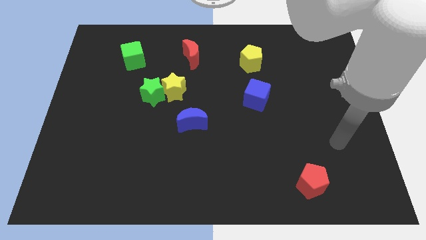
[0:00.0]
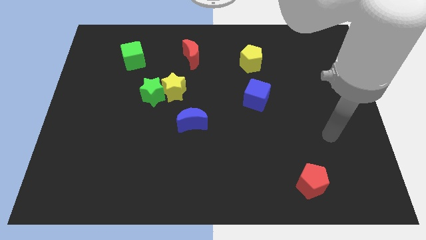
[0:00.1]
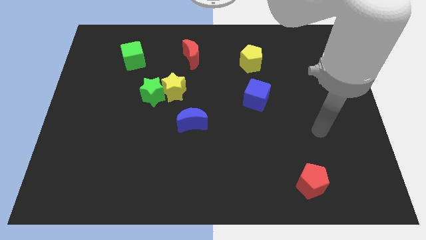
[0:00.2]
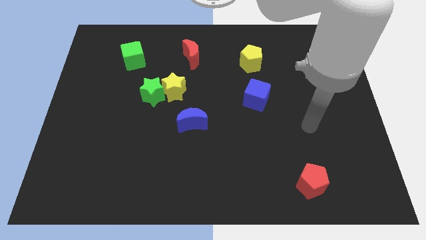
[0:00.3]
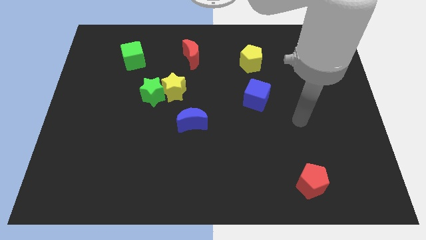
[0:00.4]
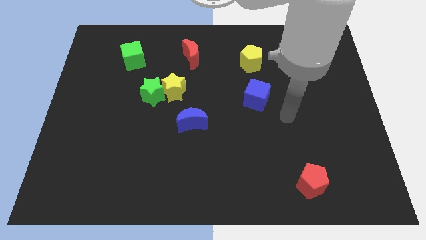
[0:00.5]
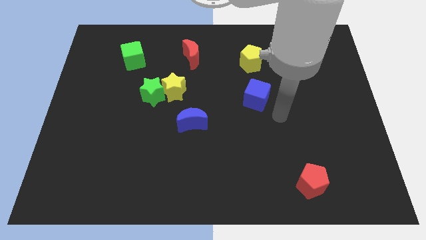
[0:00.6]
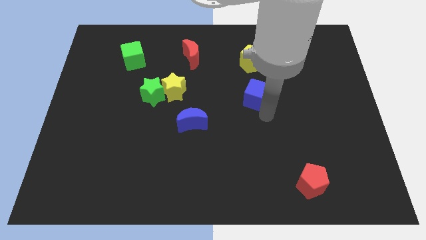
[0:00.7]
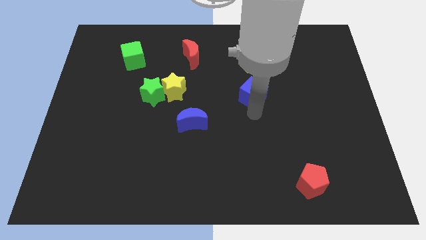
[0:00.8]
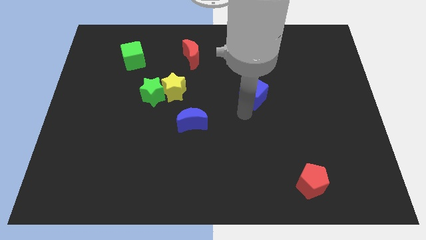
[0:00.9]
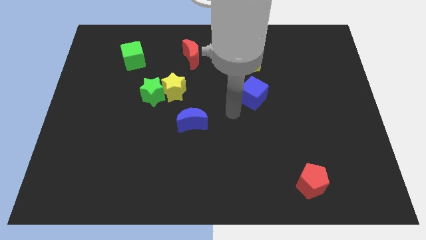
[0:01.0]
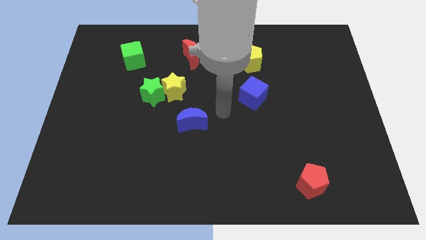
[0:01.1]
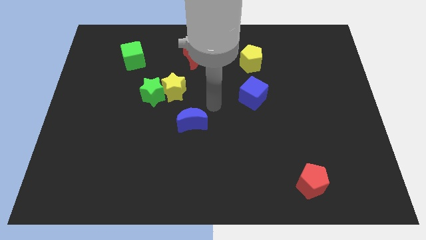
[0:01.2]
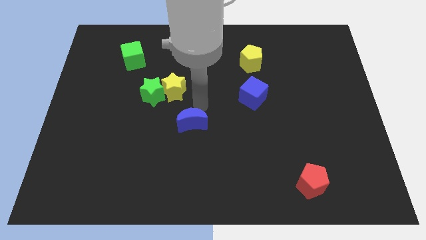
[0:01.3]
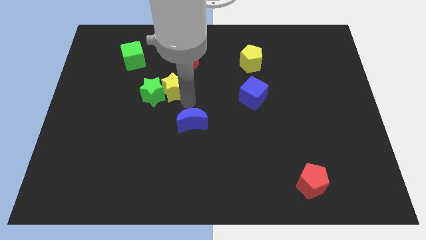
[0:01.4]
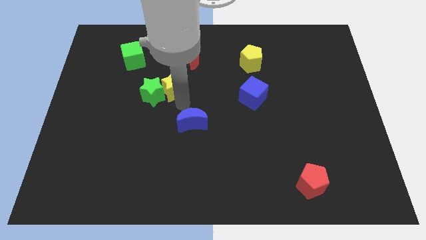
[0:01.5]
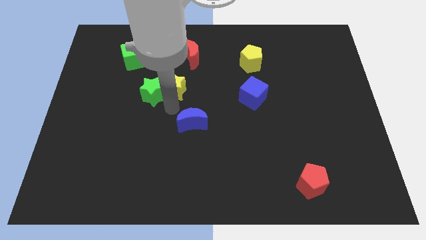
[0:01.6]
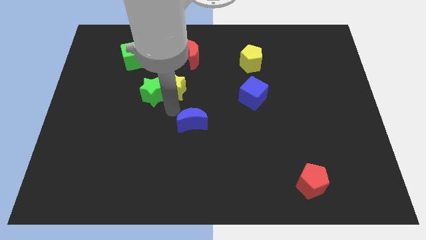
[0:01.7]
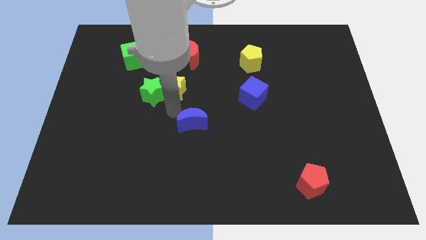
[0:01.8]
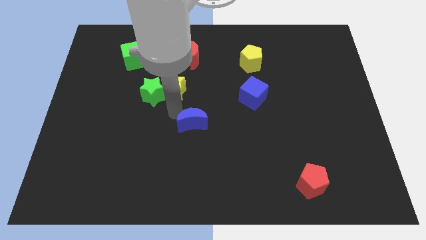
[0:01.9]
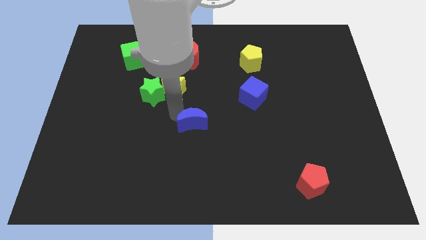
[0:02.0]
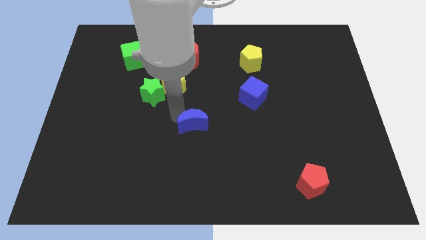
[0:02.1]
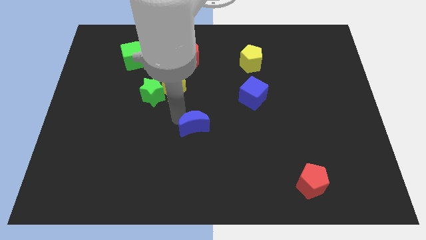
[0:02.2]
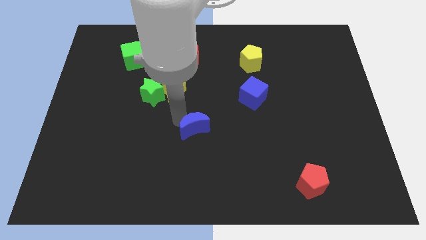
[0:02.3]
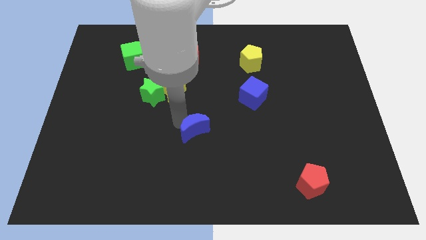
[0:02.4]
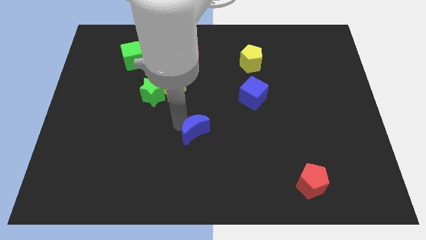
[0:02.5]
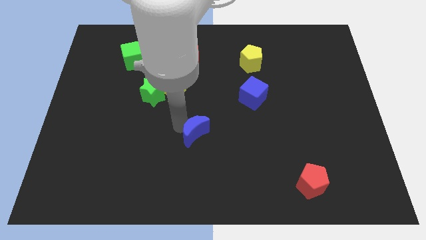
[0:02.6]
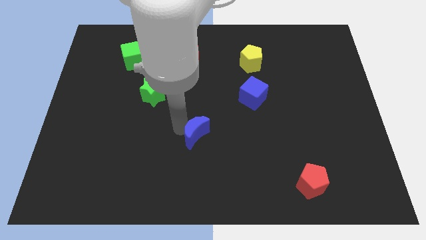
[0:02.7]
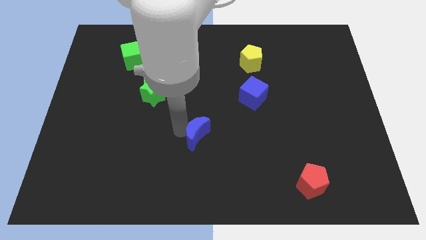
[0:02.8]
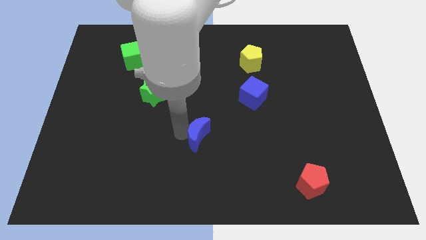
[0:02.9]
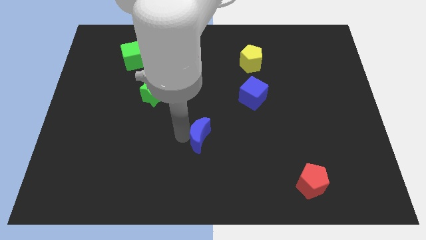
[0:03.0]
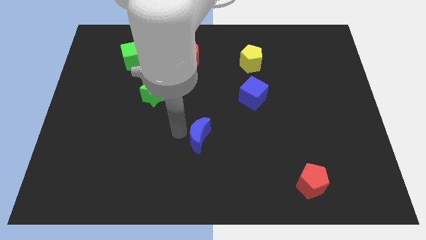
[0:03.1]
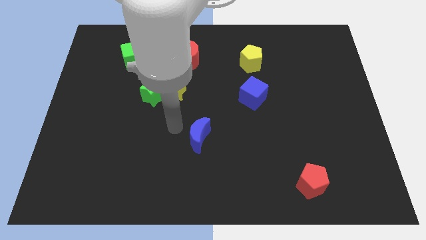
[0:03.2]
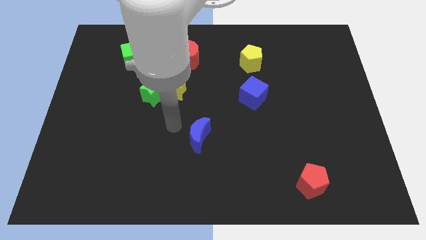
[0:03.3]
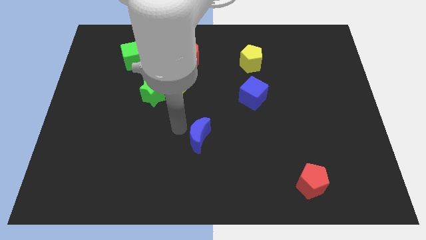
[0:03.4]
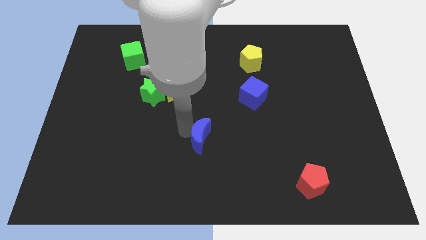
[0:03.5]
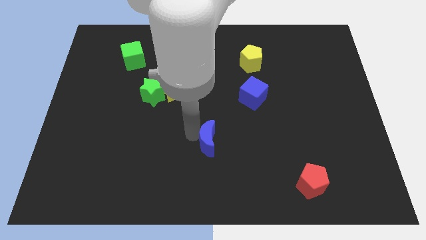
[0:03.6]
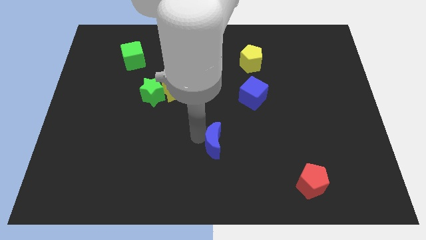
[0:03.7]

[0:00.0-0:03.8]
push the blue moon slightly down and right

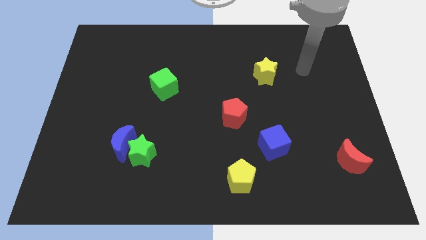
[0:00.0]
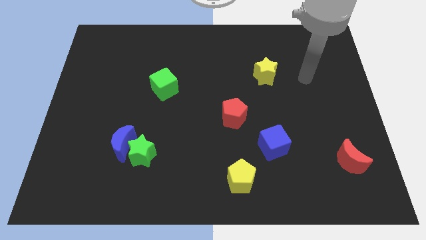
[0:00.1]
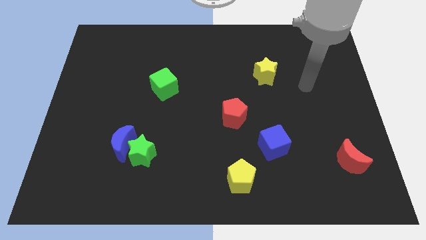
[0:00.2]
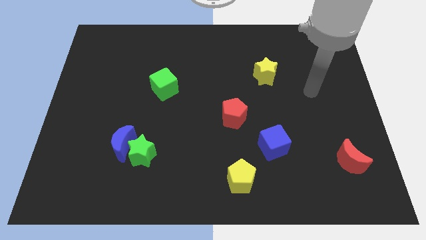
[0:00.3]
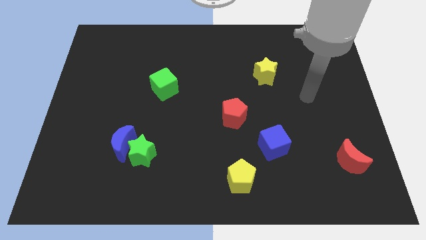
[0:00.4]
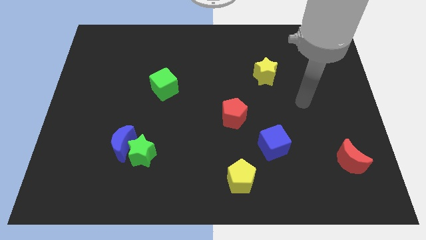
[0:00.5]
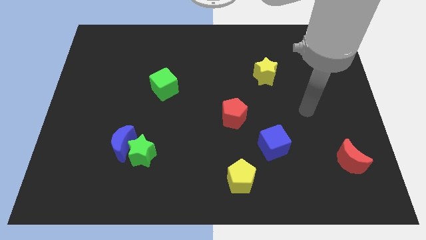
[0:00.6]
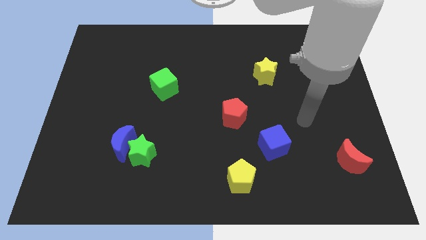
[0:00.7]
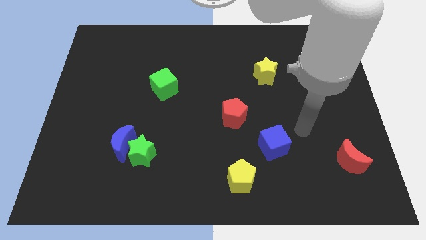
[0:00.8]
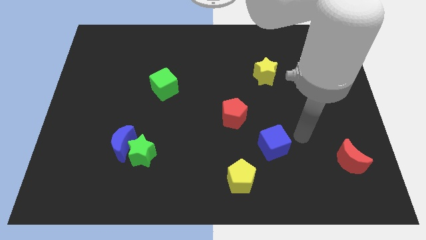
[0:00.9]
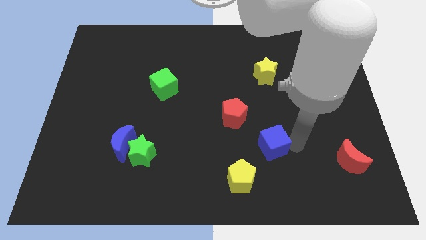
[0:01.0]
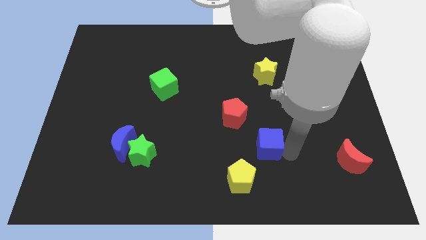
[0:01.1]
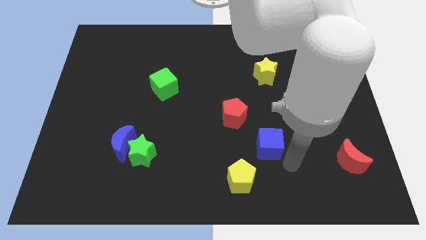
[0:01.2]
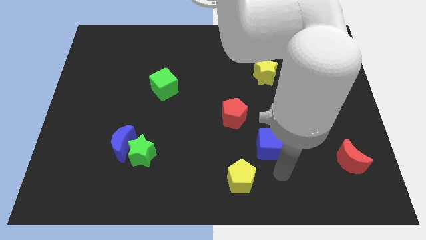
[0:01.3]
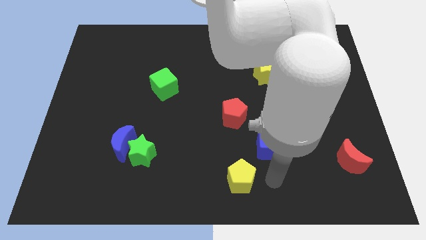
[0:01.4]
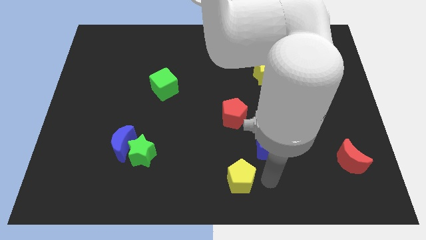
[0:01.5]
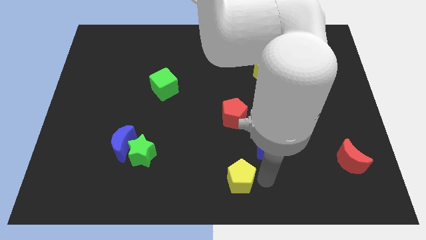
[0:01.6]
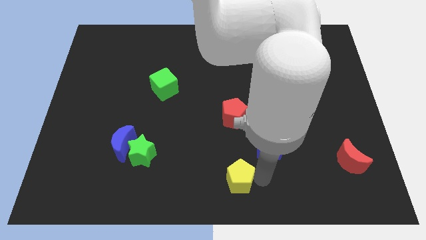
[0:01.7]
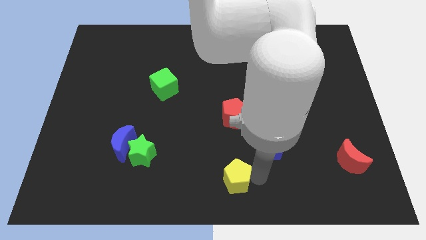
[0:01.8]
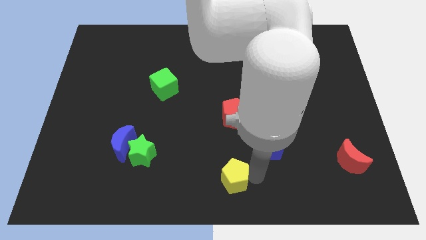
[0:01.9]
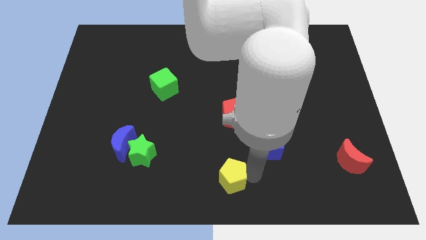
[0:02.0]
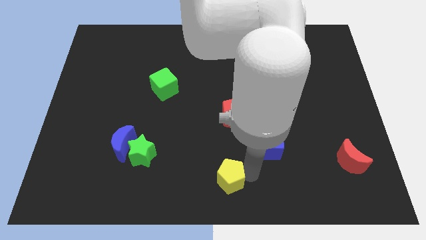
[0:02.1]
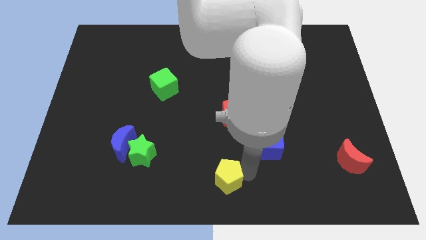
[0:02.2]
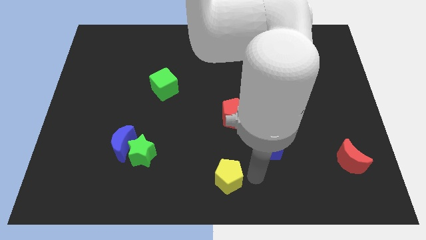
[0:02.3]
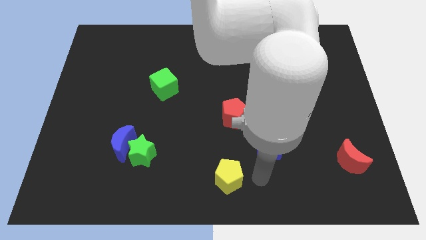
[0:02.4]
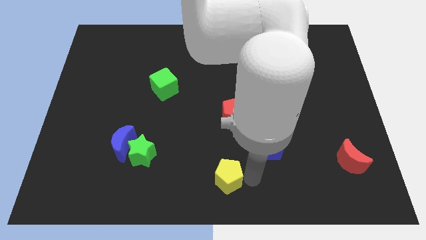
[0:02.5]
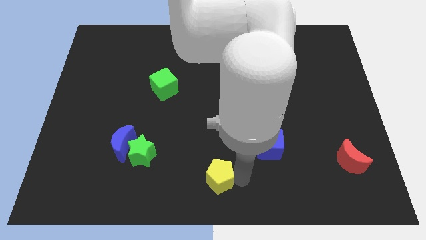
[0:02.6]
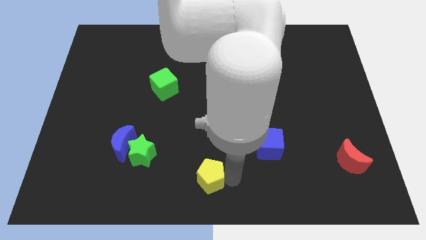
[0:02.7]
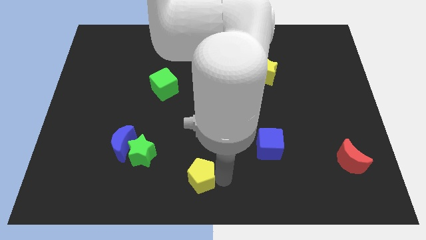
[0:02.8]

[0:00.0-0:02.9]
push the yellow pentagon to the left a little

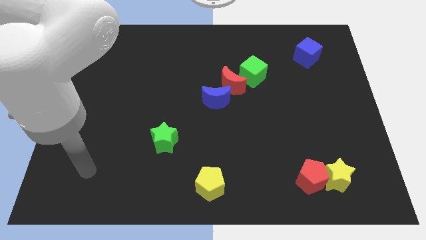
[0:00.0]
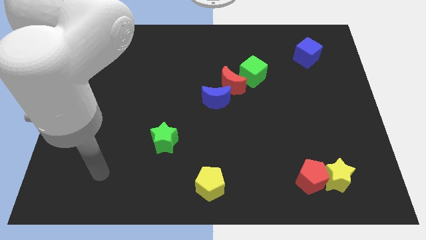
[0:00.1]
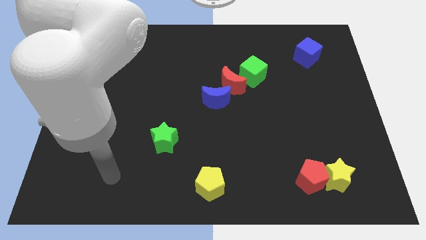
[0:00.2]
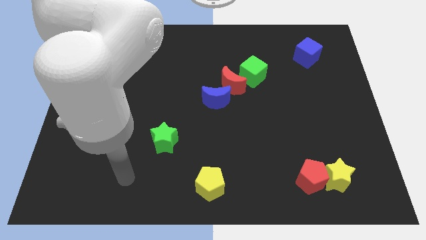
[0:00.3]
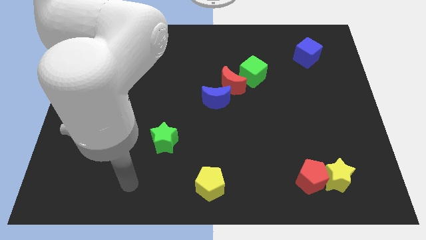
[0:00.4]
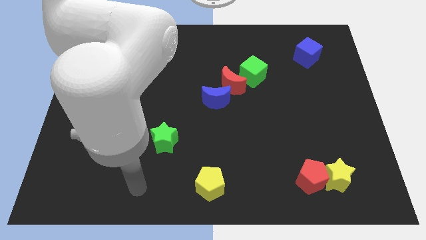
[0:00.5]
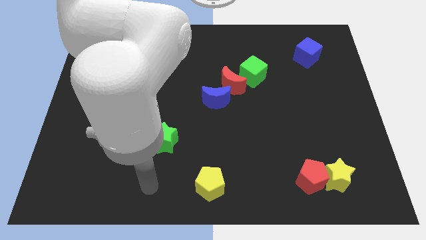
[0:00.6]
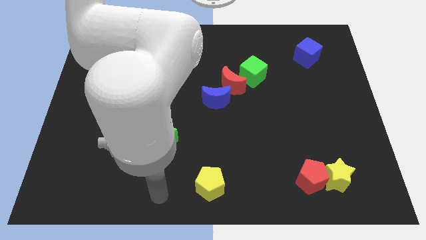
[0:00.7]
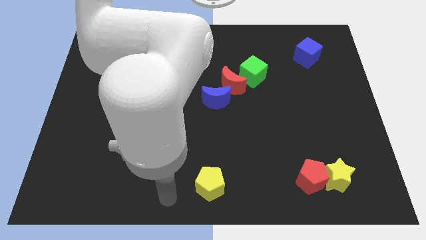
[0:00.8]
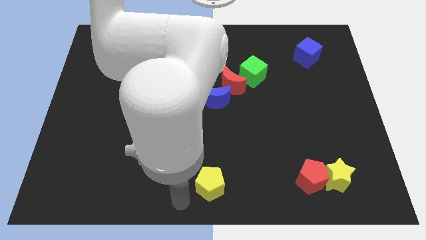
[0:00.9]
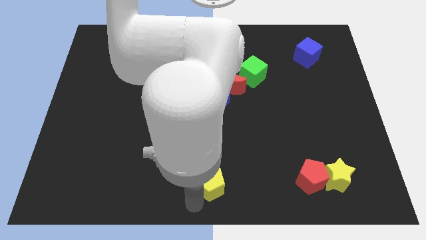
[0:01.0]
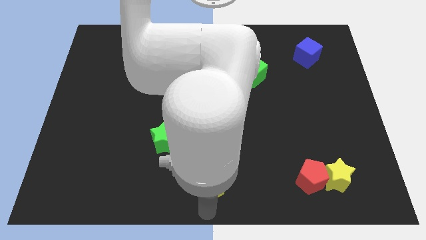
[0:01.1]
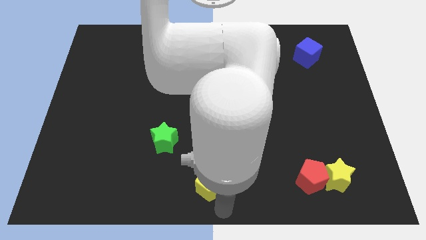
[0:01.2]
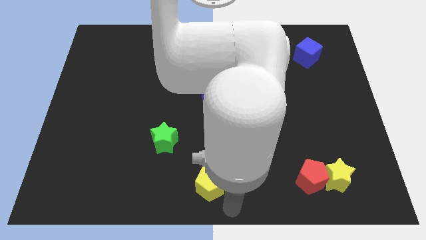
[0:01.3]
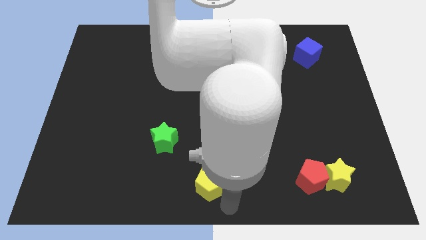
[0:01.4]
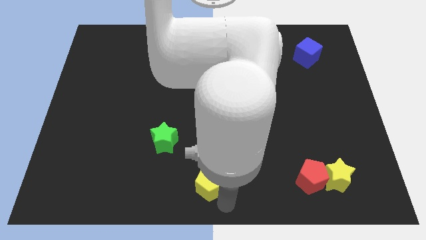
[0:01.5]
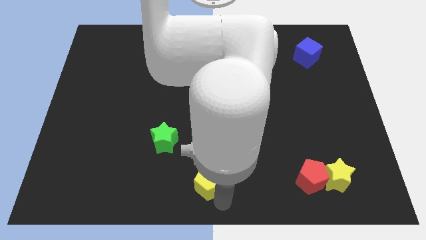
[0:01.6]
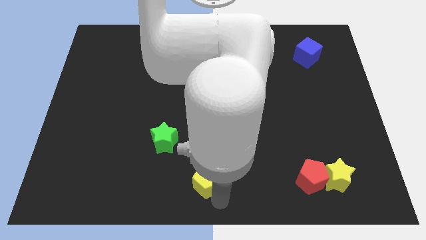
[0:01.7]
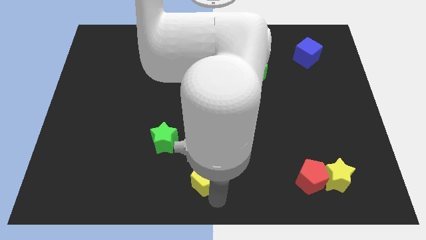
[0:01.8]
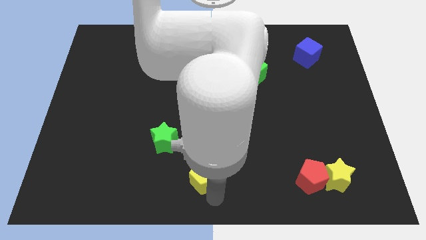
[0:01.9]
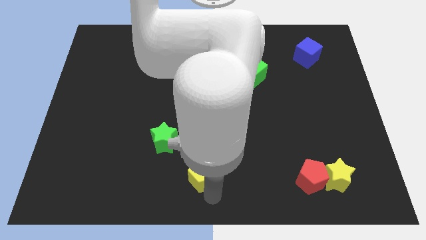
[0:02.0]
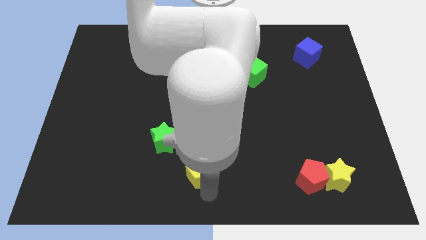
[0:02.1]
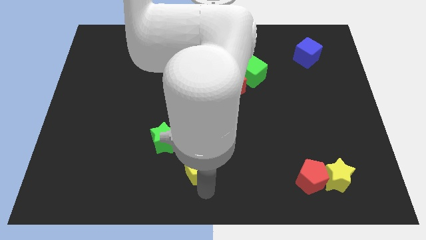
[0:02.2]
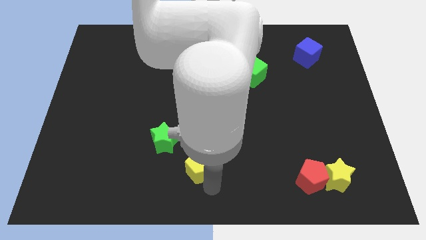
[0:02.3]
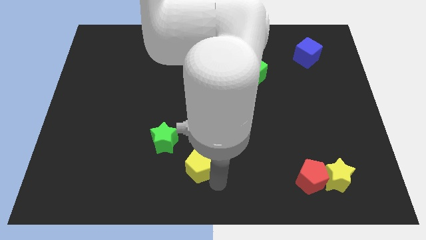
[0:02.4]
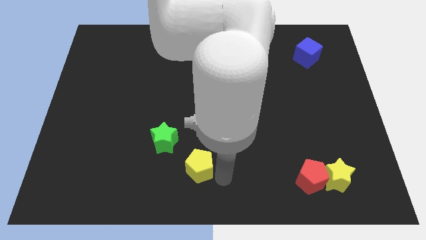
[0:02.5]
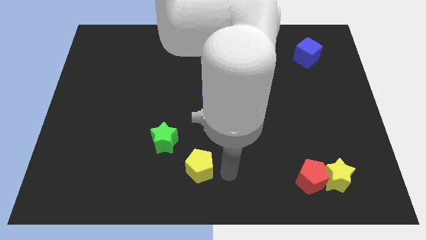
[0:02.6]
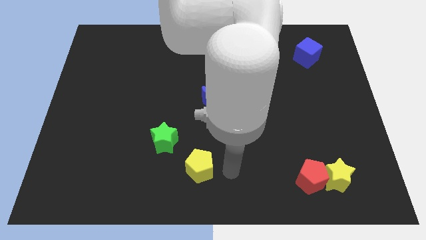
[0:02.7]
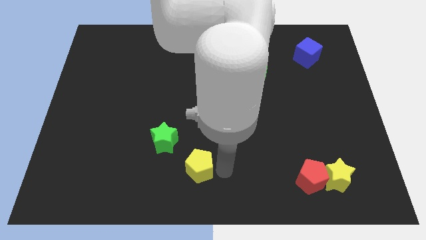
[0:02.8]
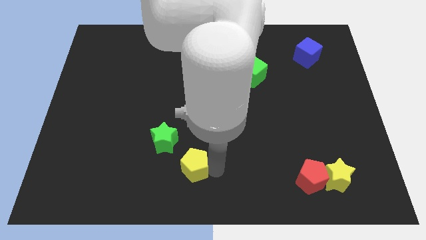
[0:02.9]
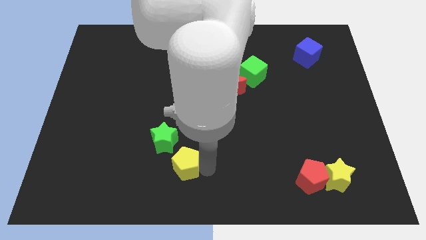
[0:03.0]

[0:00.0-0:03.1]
slide the yellow pentagon diagonally upwards and to the left slightly
